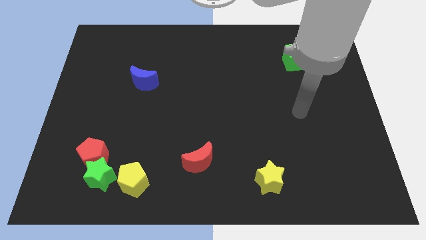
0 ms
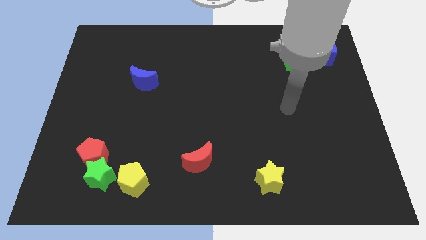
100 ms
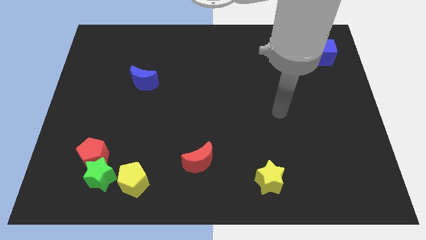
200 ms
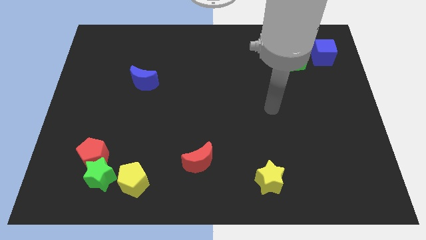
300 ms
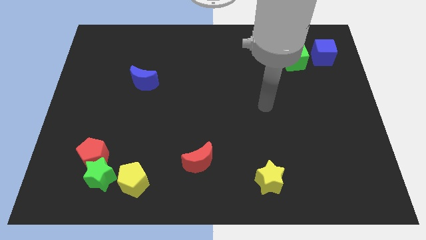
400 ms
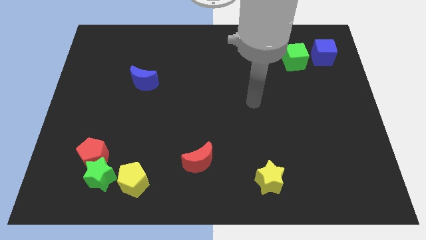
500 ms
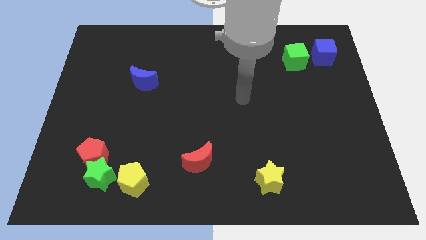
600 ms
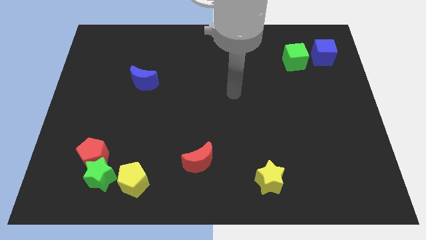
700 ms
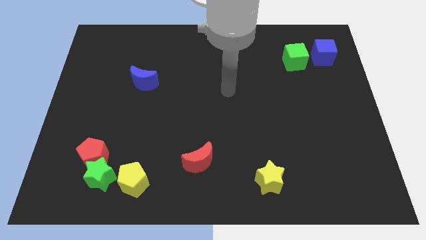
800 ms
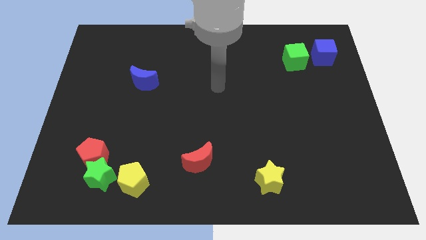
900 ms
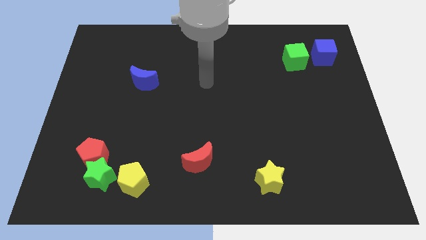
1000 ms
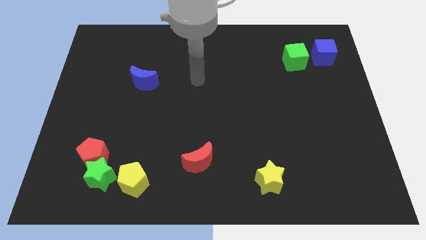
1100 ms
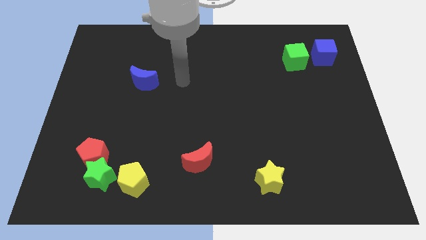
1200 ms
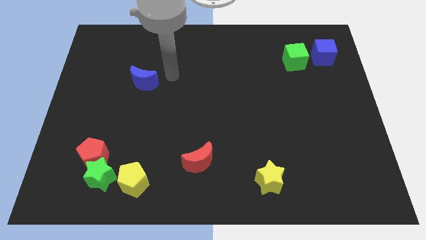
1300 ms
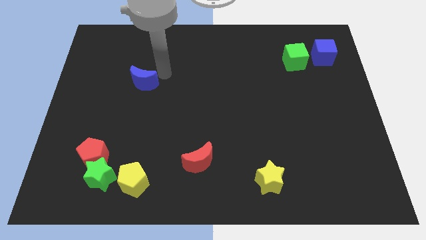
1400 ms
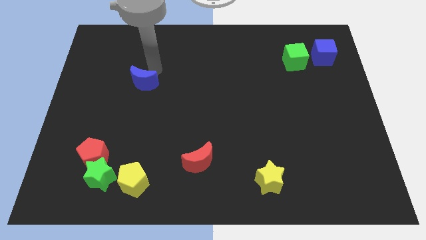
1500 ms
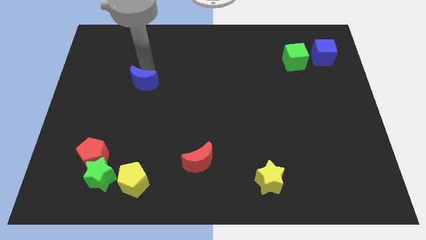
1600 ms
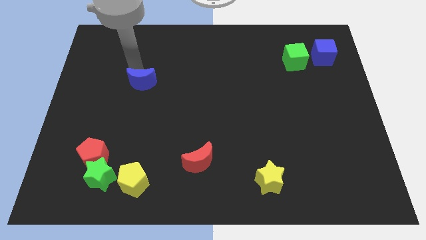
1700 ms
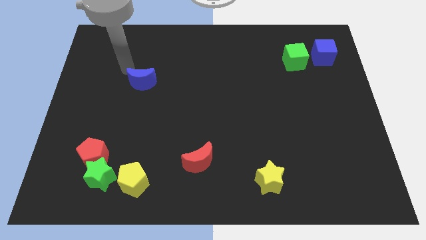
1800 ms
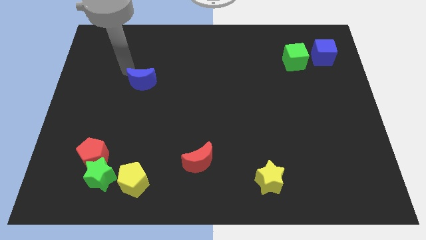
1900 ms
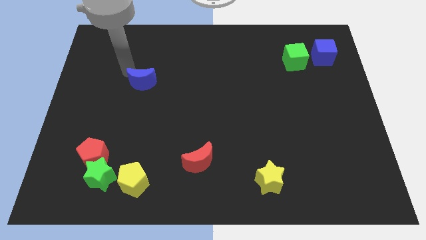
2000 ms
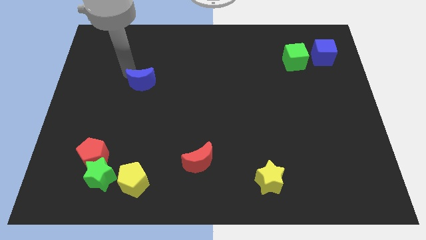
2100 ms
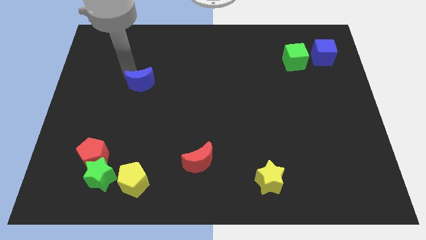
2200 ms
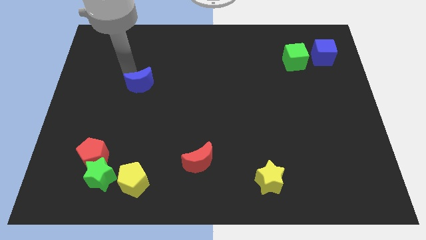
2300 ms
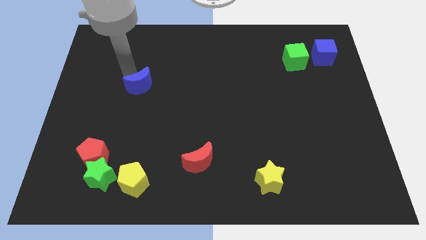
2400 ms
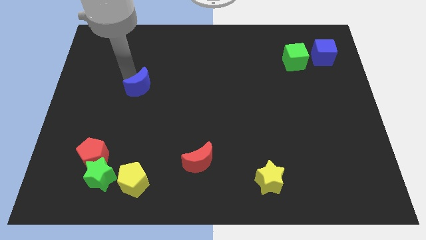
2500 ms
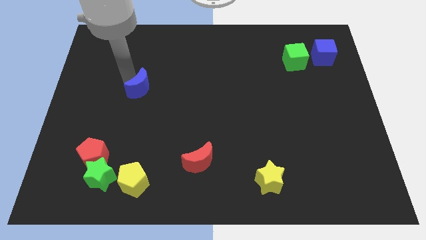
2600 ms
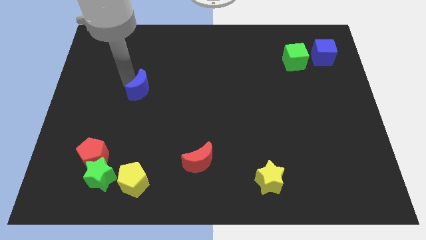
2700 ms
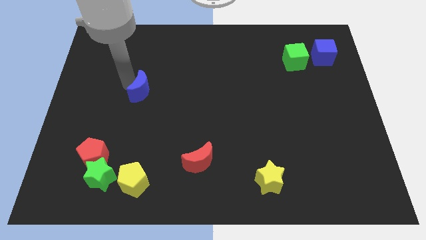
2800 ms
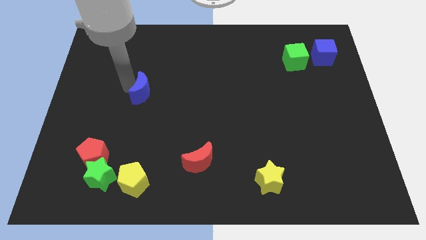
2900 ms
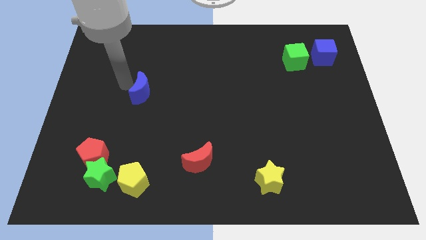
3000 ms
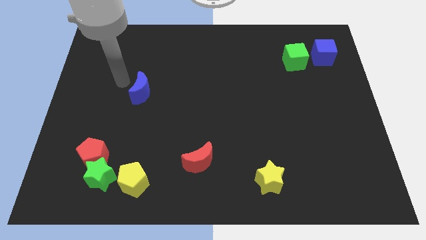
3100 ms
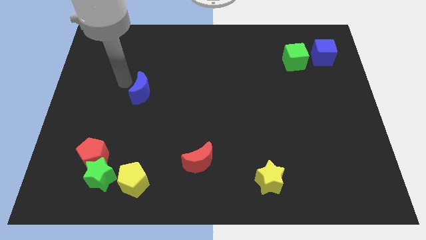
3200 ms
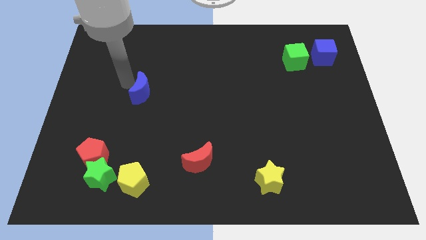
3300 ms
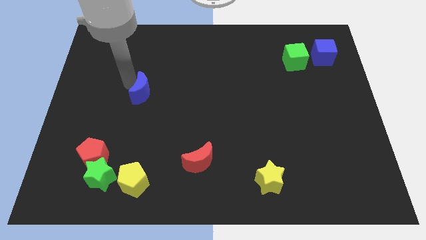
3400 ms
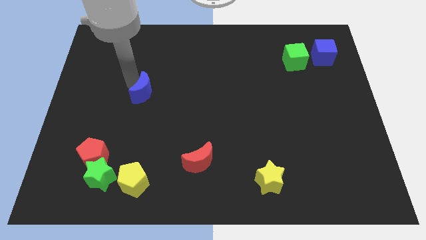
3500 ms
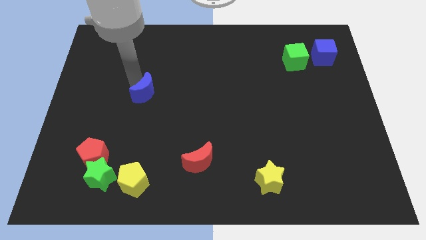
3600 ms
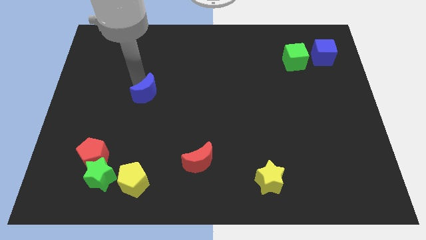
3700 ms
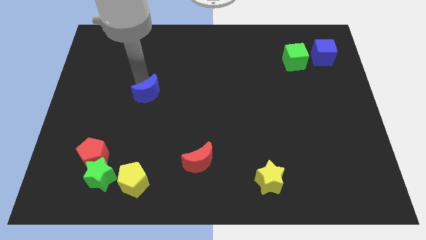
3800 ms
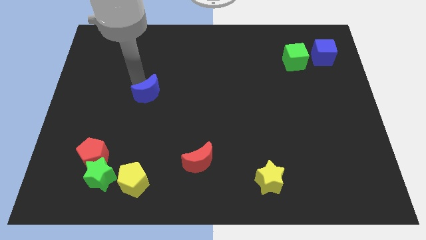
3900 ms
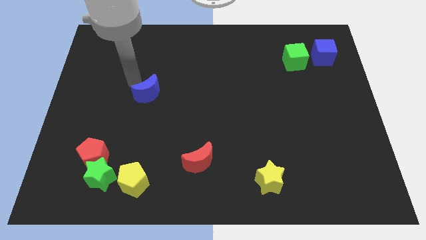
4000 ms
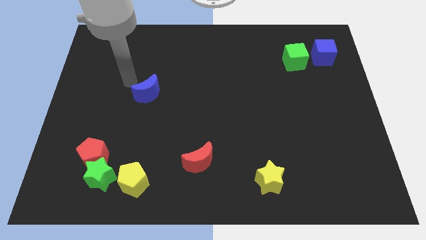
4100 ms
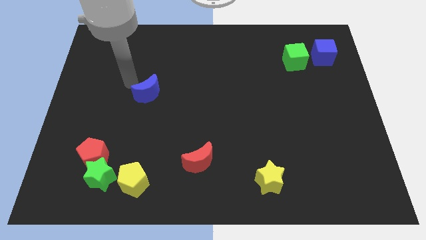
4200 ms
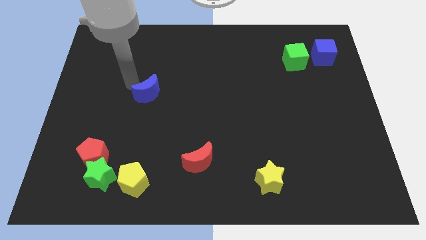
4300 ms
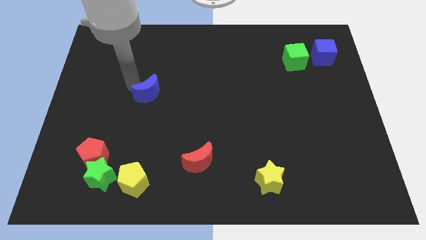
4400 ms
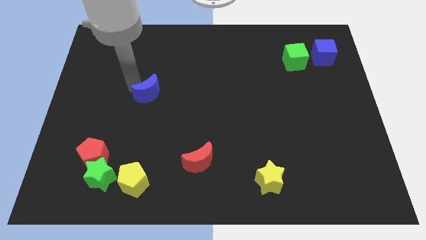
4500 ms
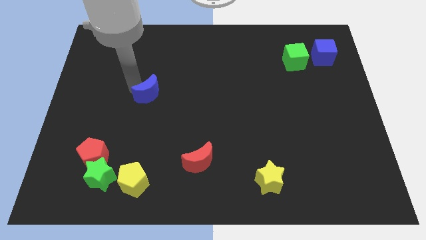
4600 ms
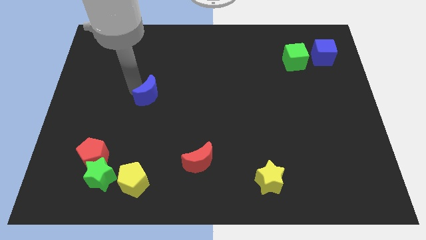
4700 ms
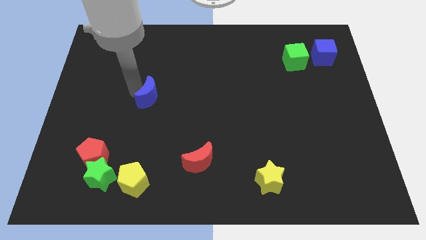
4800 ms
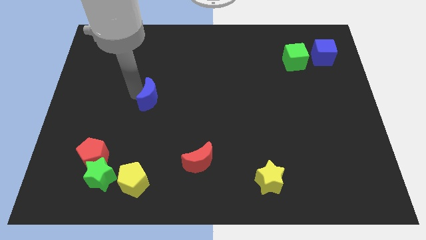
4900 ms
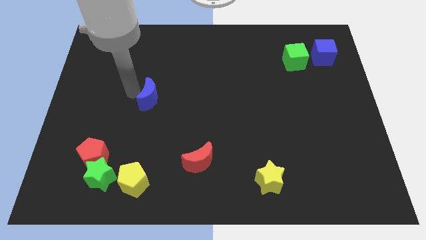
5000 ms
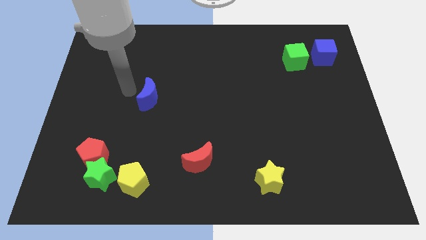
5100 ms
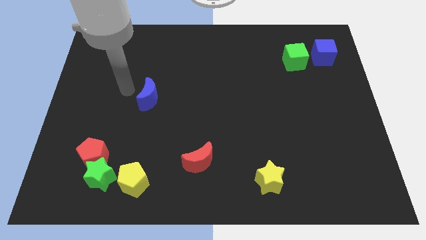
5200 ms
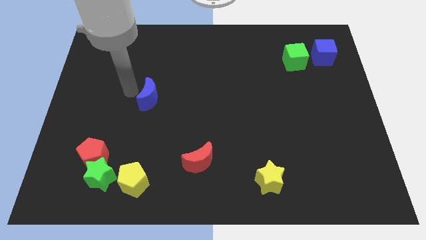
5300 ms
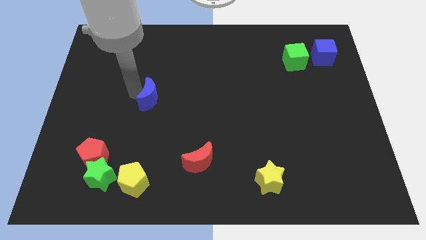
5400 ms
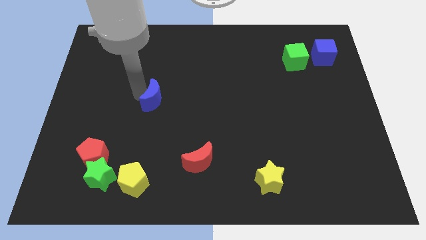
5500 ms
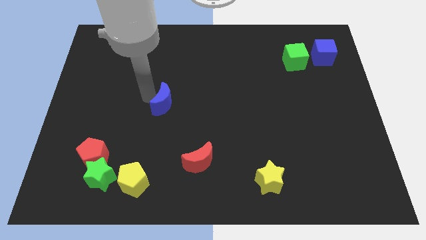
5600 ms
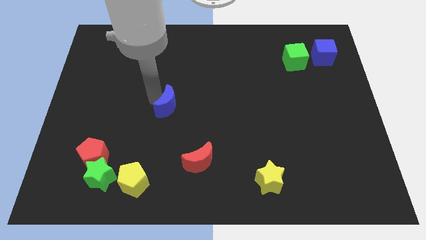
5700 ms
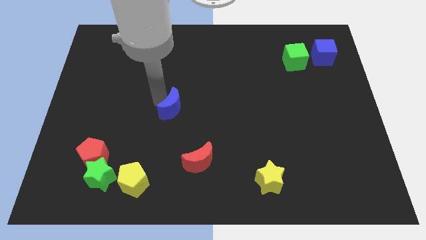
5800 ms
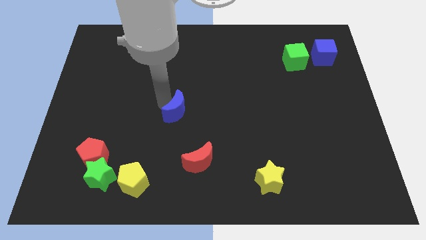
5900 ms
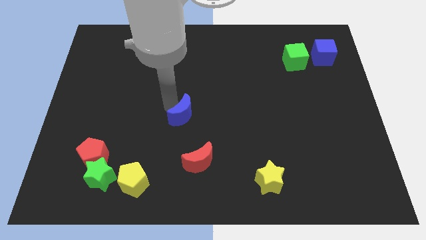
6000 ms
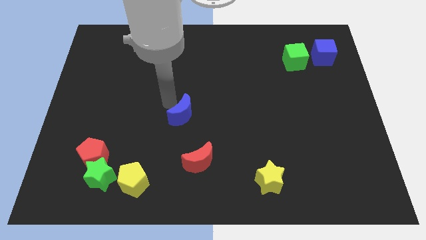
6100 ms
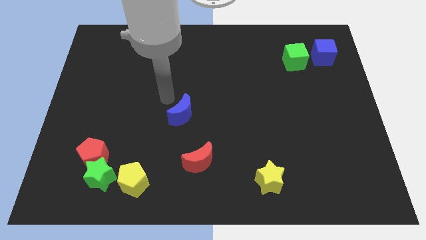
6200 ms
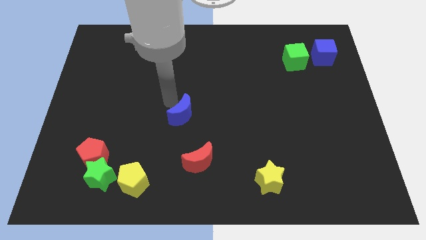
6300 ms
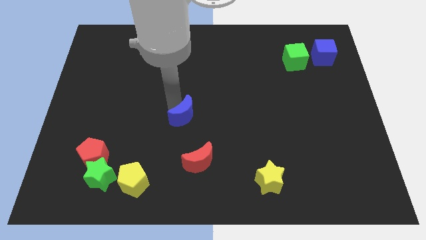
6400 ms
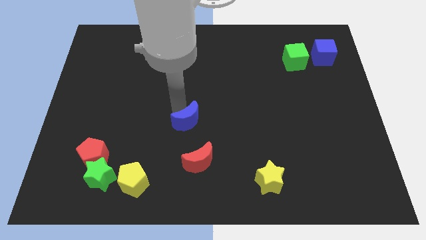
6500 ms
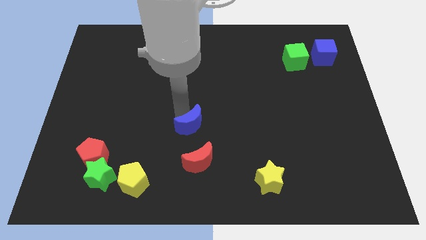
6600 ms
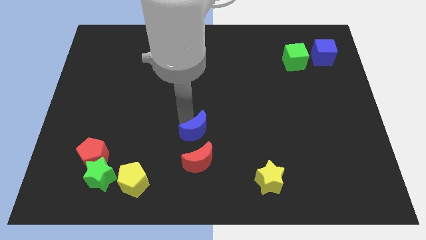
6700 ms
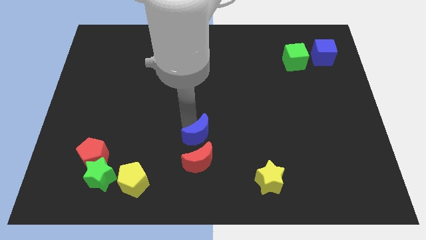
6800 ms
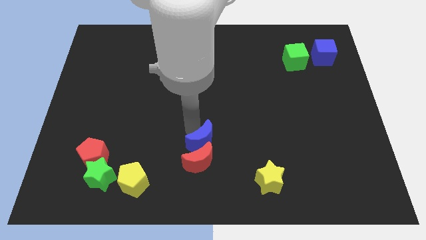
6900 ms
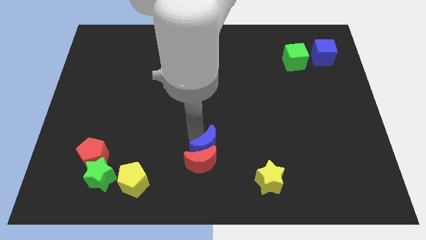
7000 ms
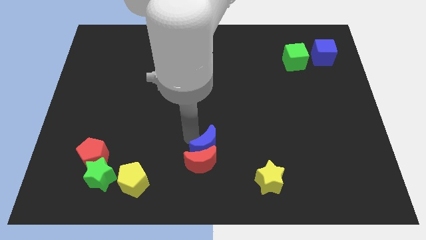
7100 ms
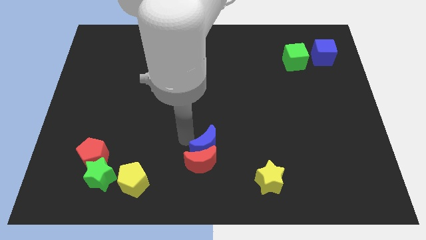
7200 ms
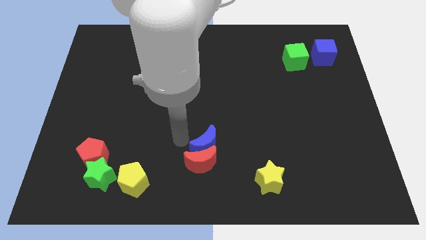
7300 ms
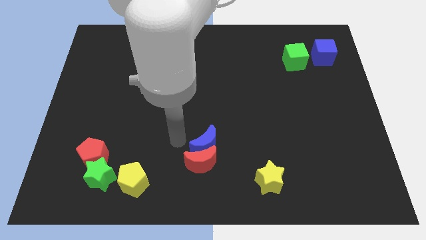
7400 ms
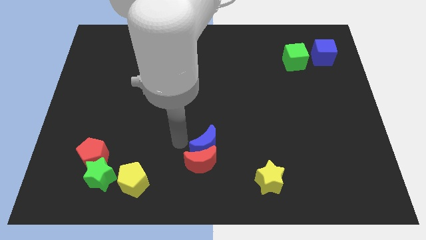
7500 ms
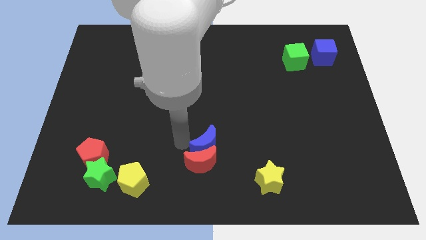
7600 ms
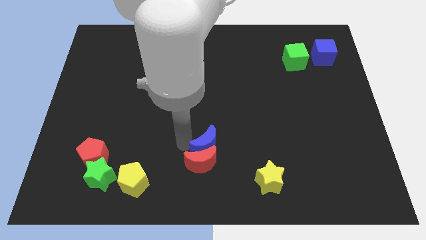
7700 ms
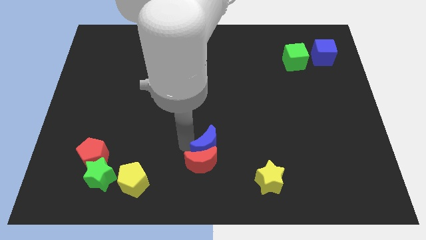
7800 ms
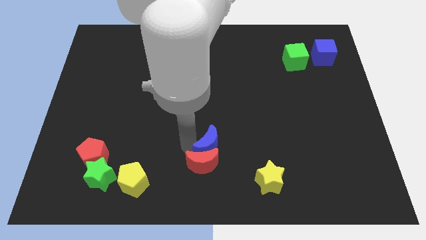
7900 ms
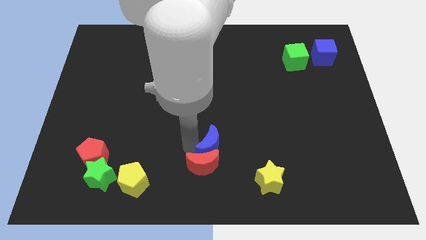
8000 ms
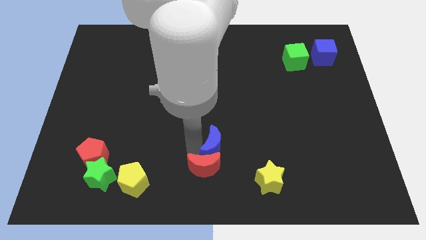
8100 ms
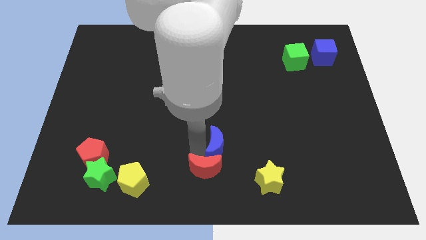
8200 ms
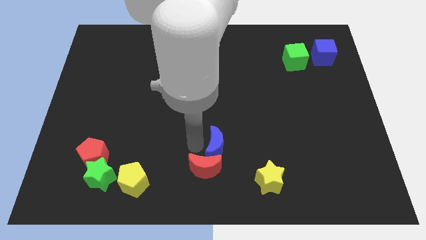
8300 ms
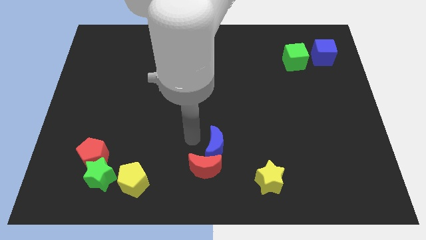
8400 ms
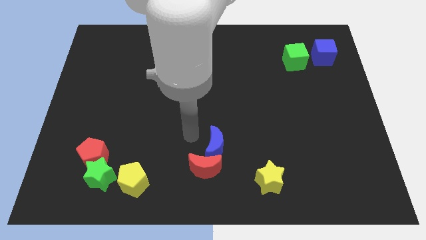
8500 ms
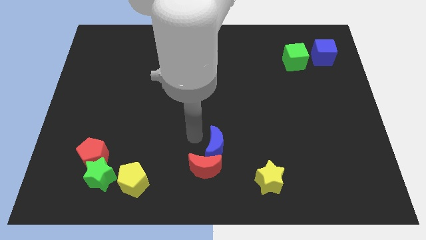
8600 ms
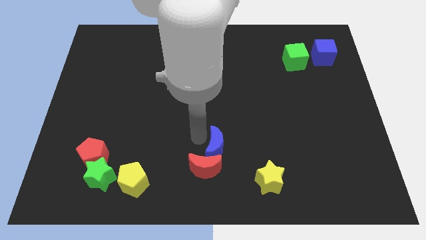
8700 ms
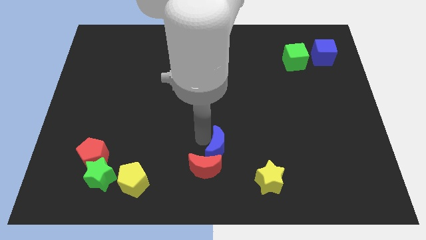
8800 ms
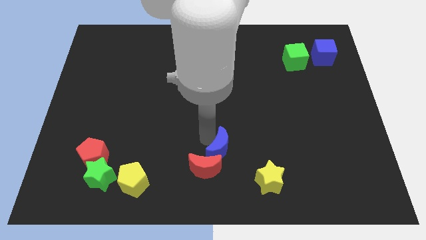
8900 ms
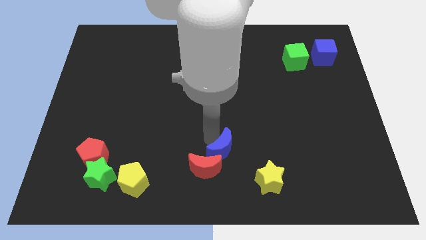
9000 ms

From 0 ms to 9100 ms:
slide the blue moon right of the red moon
